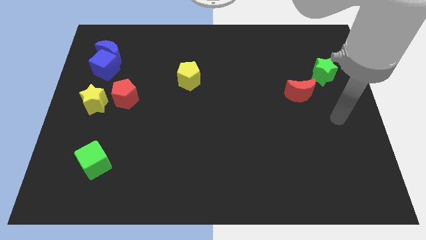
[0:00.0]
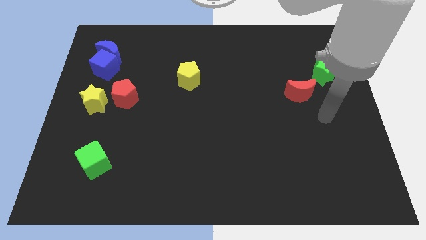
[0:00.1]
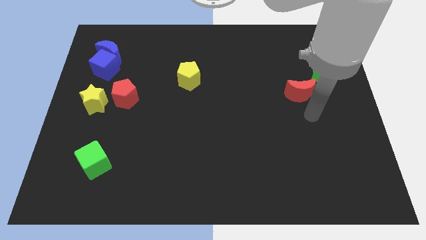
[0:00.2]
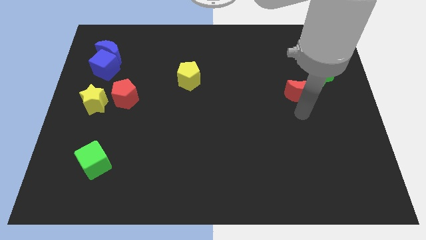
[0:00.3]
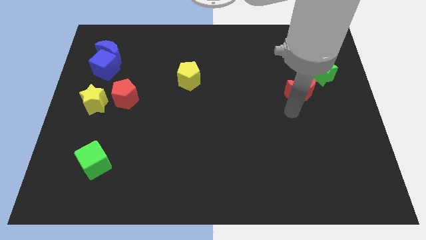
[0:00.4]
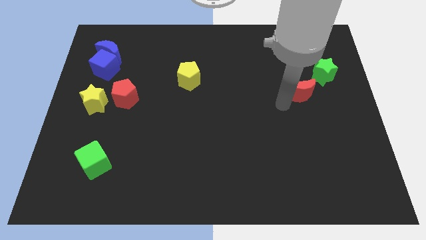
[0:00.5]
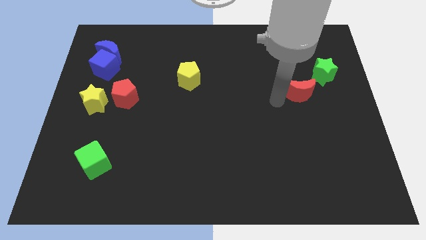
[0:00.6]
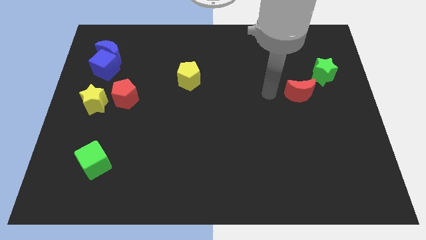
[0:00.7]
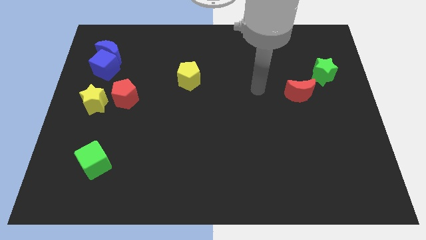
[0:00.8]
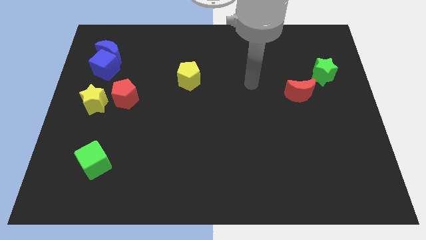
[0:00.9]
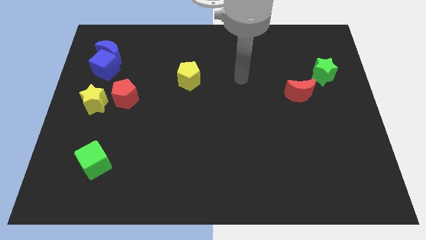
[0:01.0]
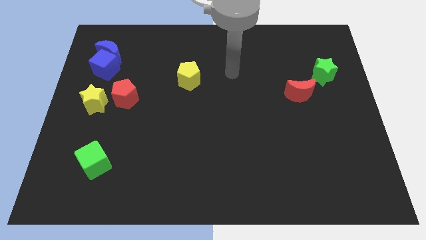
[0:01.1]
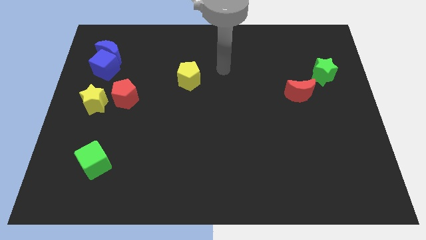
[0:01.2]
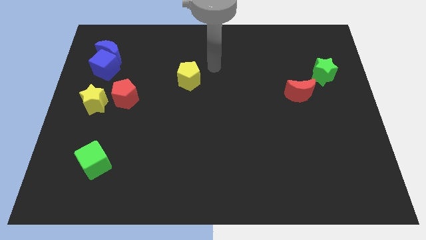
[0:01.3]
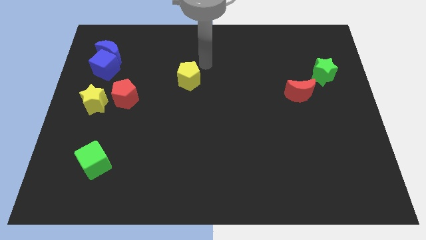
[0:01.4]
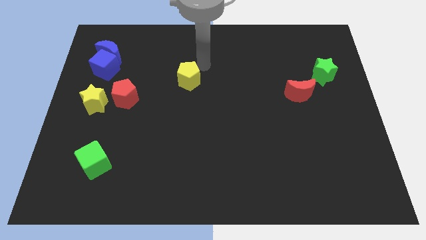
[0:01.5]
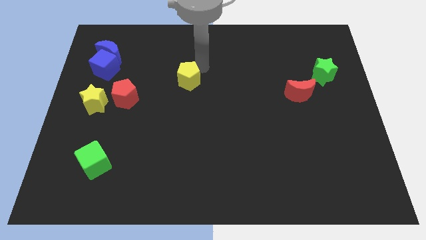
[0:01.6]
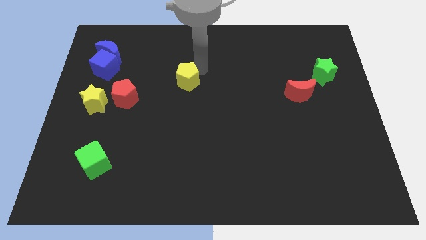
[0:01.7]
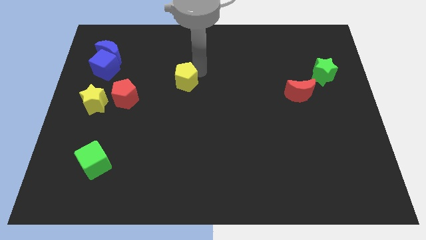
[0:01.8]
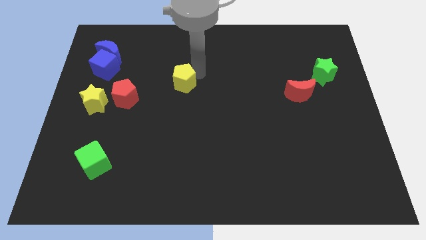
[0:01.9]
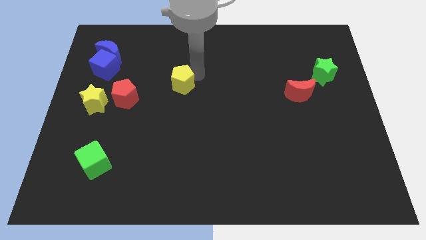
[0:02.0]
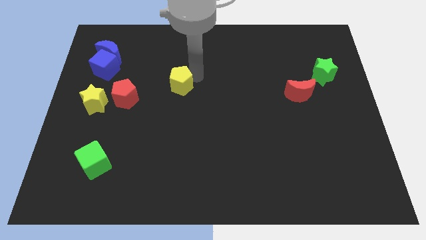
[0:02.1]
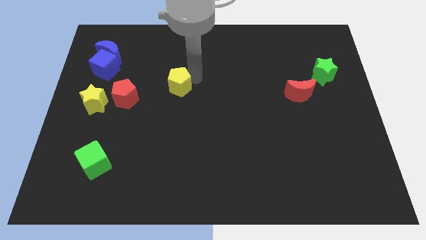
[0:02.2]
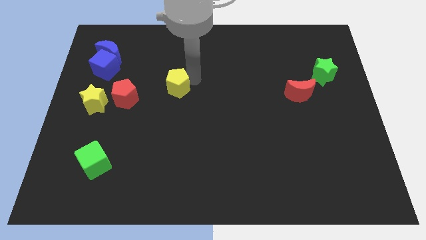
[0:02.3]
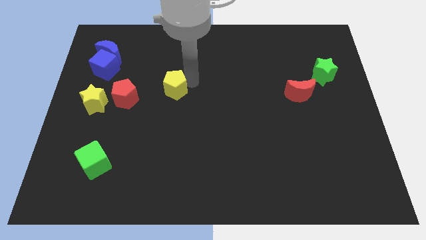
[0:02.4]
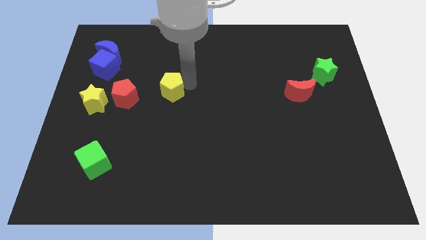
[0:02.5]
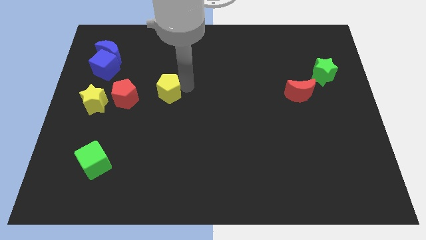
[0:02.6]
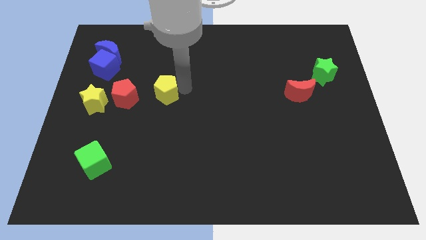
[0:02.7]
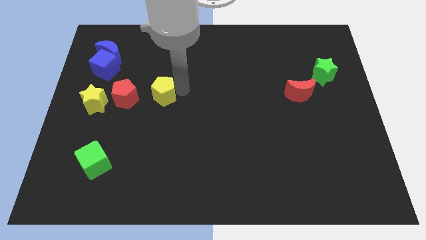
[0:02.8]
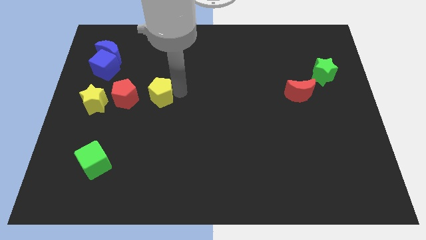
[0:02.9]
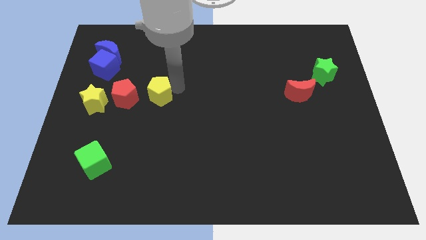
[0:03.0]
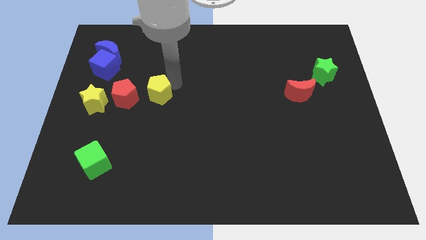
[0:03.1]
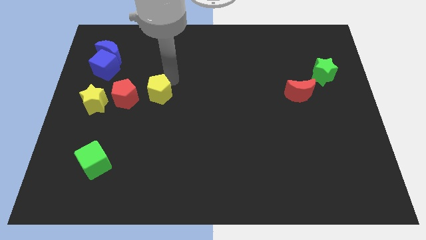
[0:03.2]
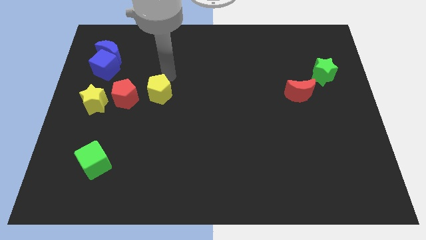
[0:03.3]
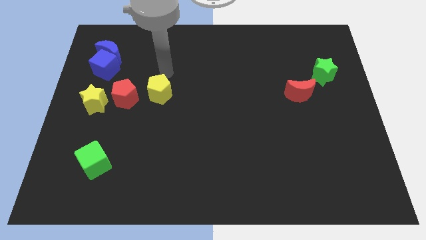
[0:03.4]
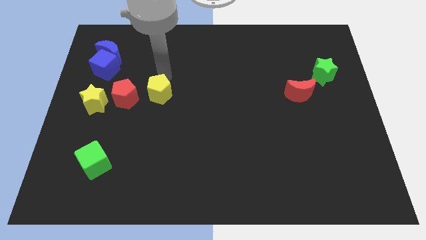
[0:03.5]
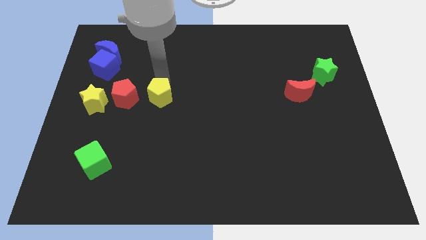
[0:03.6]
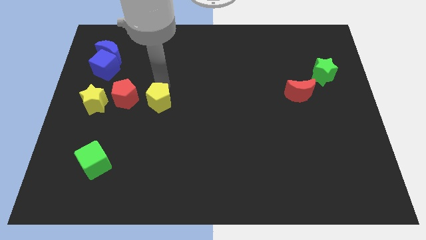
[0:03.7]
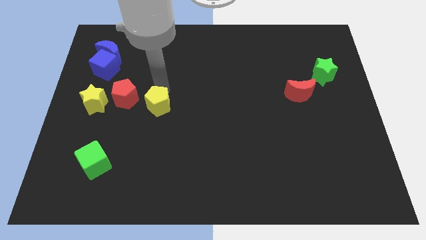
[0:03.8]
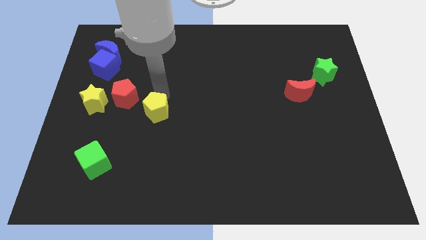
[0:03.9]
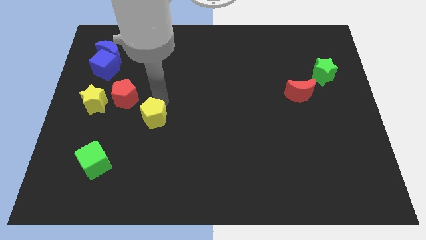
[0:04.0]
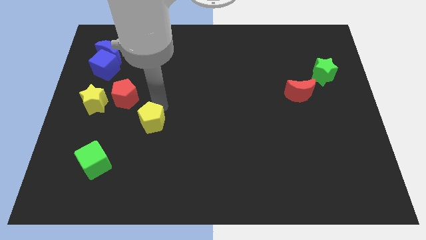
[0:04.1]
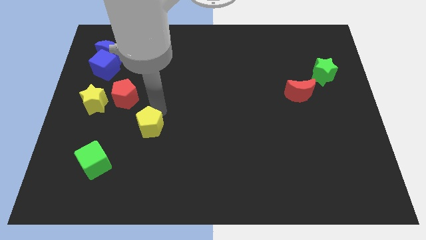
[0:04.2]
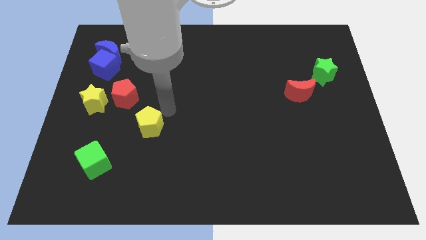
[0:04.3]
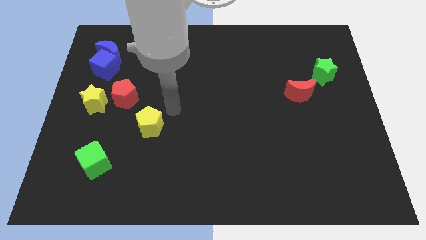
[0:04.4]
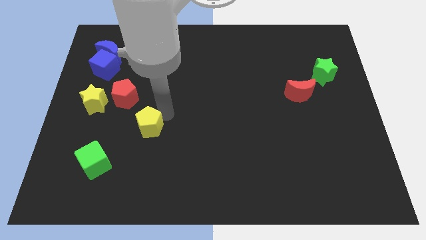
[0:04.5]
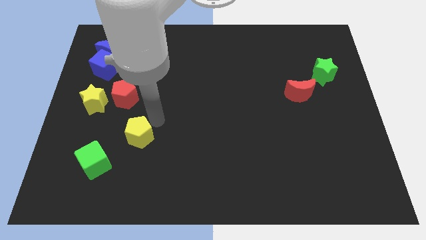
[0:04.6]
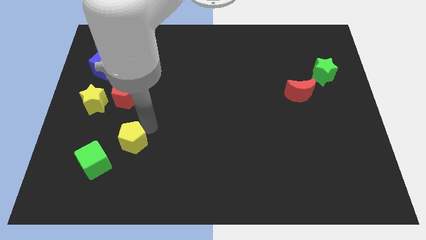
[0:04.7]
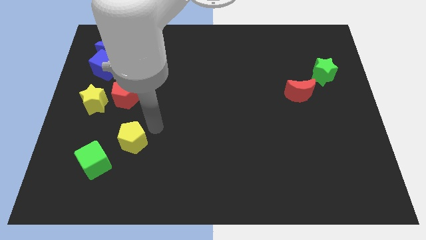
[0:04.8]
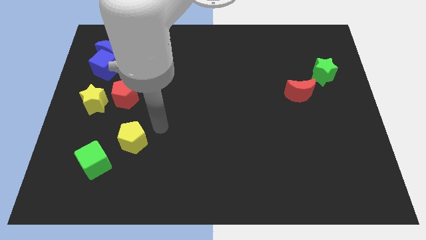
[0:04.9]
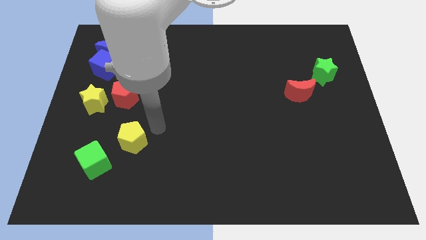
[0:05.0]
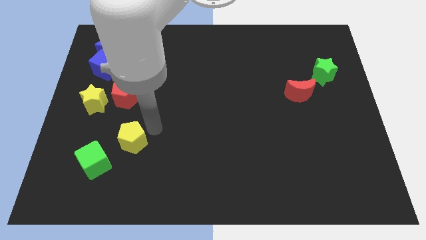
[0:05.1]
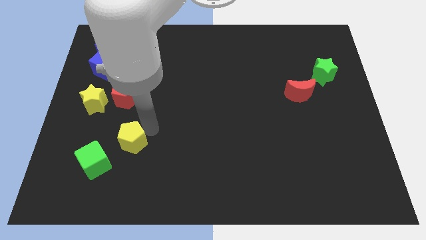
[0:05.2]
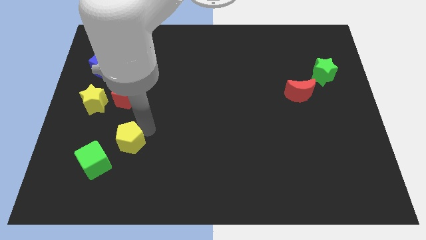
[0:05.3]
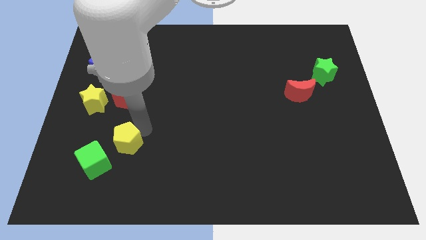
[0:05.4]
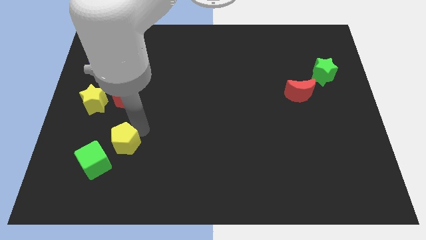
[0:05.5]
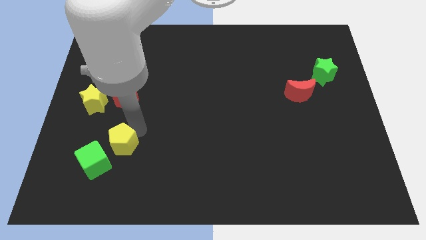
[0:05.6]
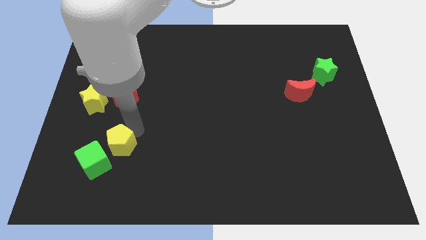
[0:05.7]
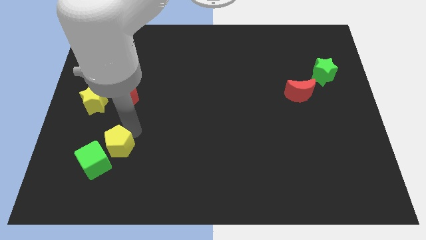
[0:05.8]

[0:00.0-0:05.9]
push the yellow pentagon to the green cube

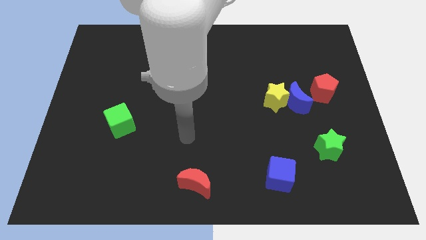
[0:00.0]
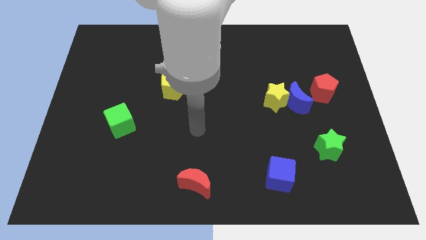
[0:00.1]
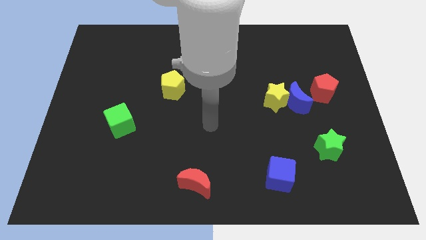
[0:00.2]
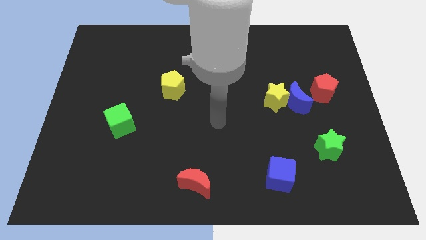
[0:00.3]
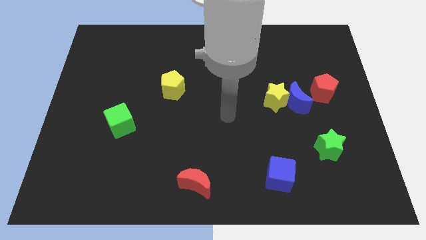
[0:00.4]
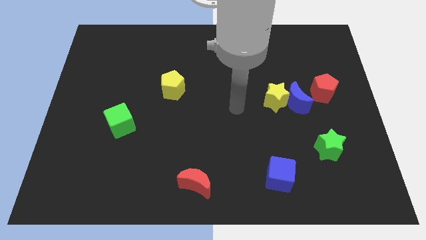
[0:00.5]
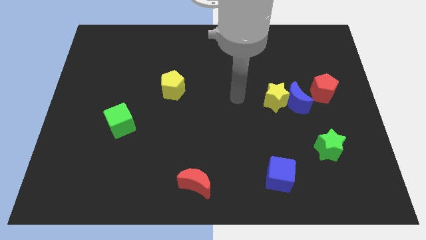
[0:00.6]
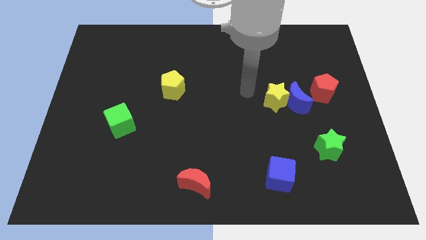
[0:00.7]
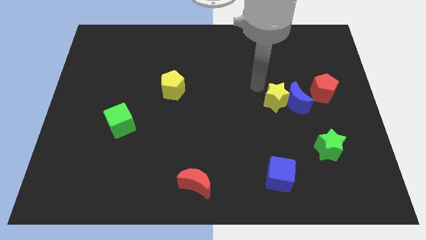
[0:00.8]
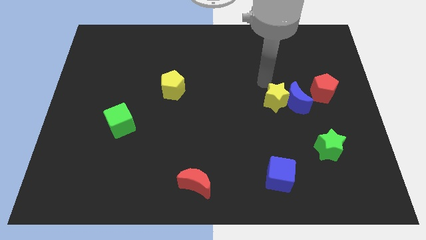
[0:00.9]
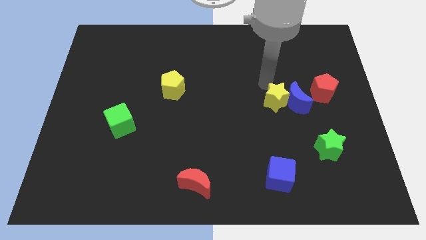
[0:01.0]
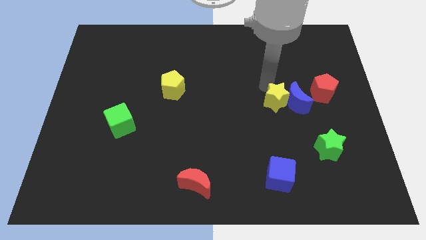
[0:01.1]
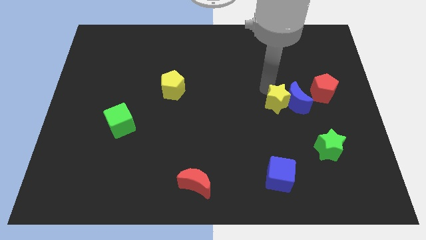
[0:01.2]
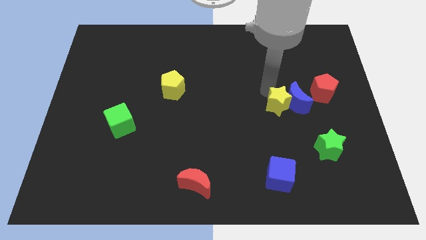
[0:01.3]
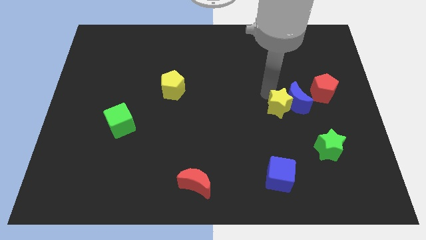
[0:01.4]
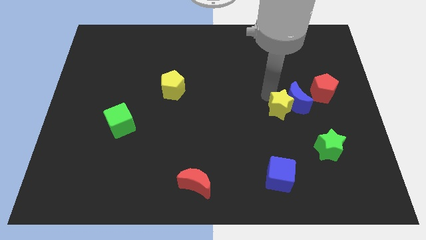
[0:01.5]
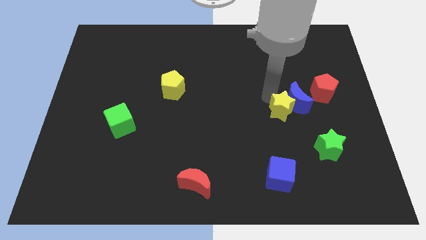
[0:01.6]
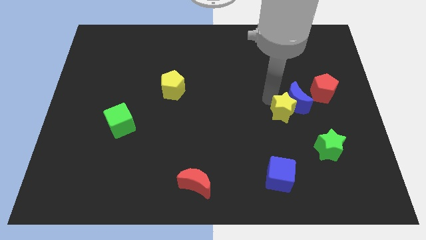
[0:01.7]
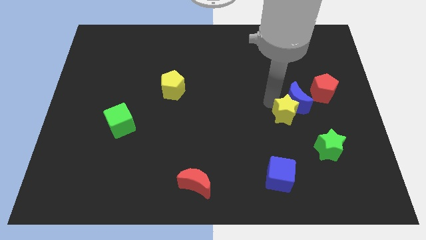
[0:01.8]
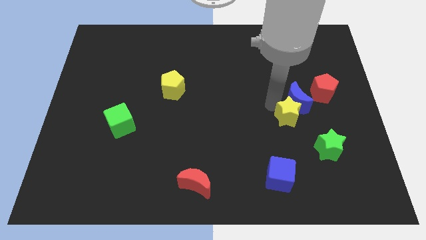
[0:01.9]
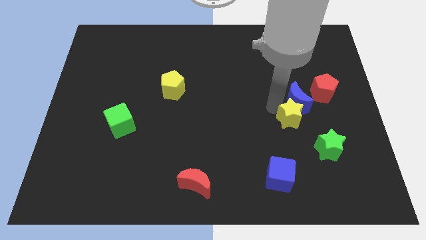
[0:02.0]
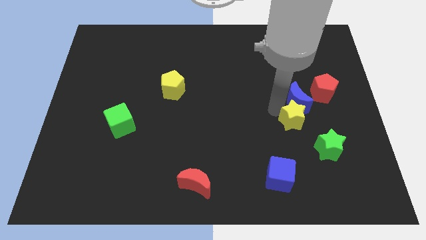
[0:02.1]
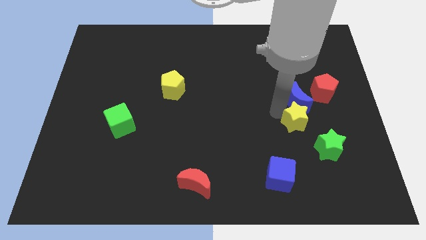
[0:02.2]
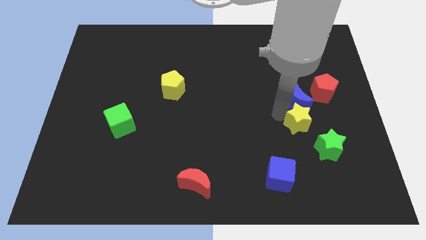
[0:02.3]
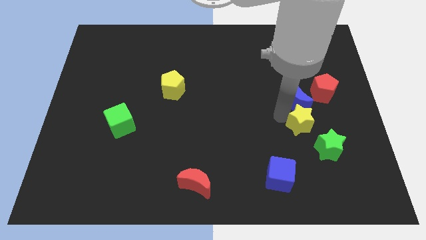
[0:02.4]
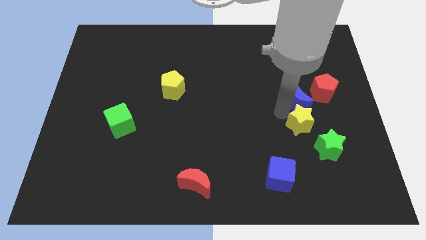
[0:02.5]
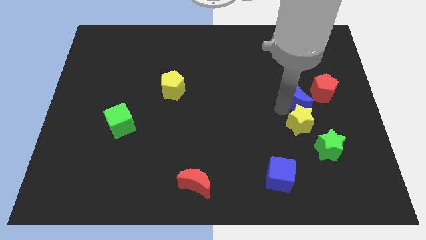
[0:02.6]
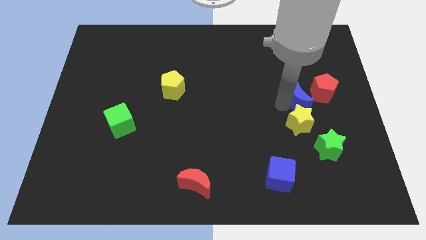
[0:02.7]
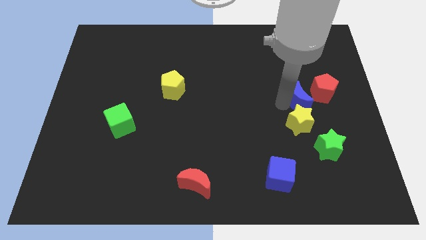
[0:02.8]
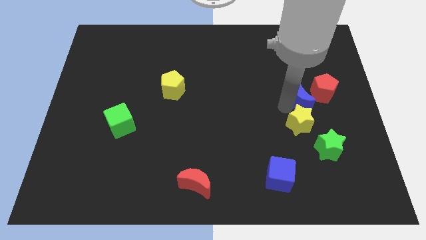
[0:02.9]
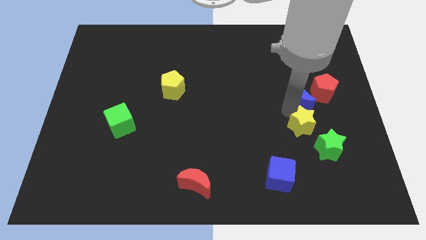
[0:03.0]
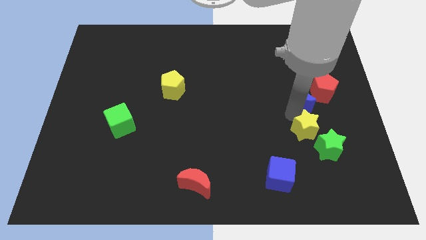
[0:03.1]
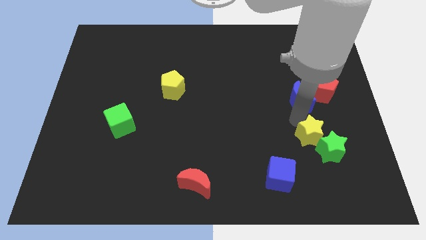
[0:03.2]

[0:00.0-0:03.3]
push the yellow star next to the green star
